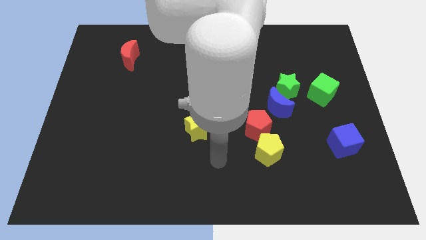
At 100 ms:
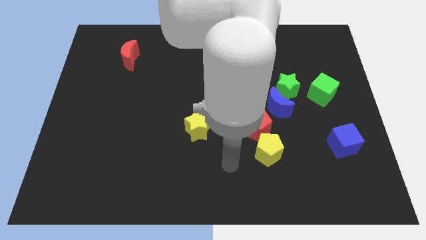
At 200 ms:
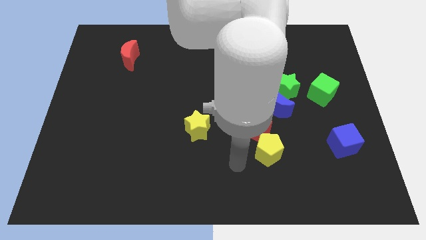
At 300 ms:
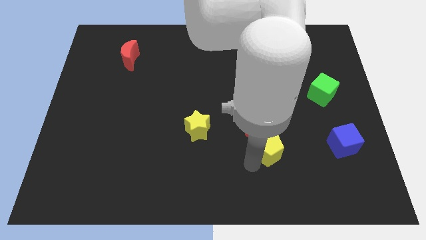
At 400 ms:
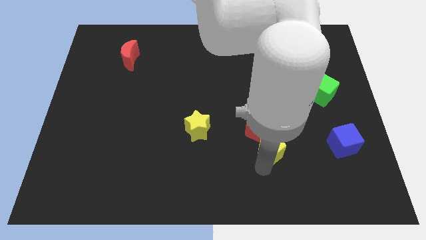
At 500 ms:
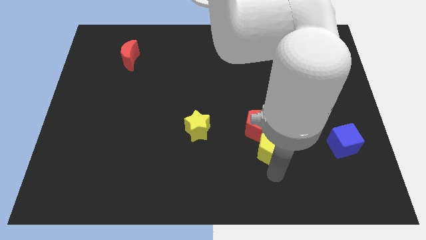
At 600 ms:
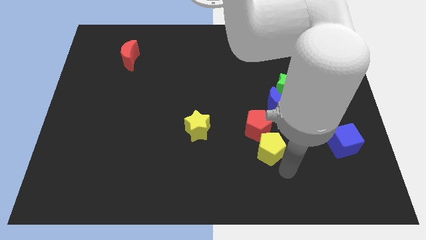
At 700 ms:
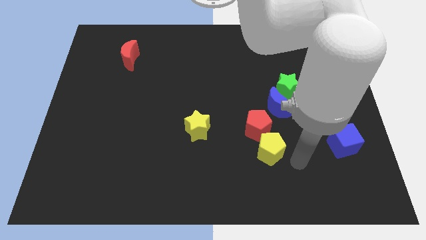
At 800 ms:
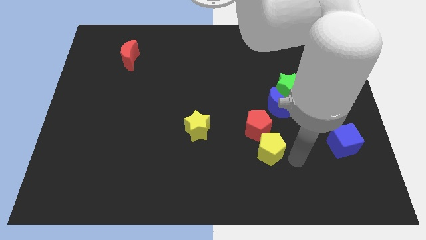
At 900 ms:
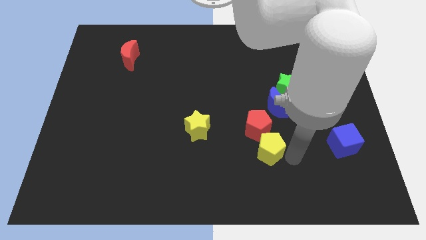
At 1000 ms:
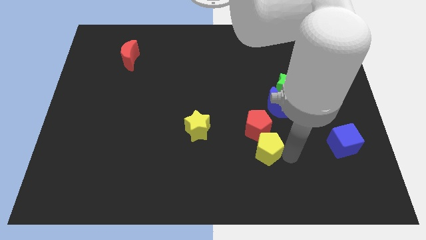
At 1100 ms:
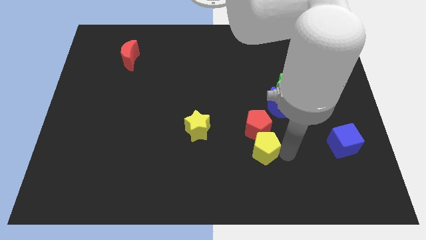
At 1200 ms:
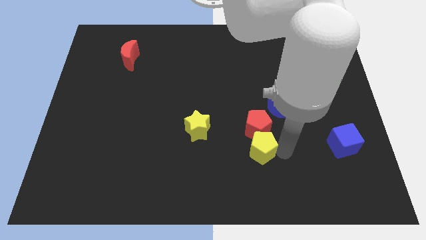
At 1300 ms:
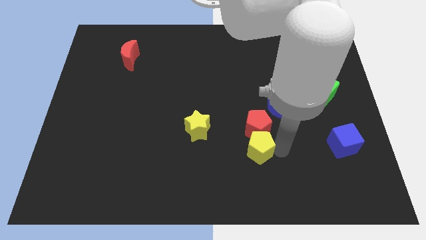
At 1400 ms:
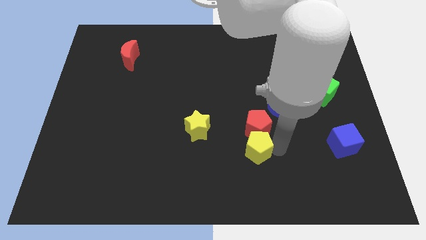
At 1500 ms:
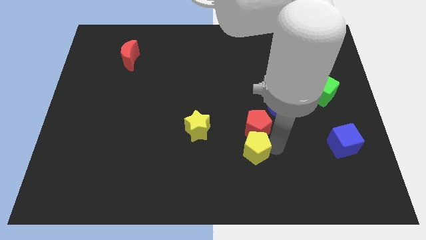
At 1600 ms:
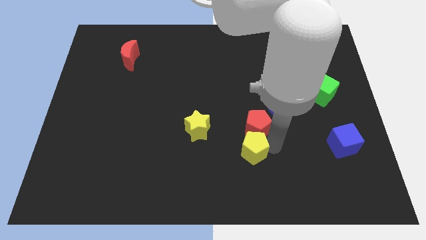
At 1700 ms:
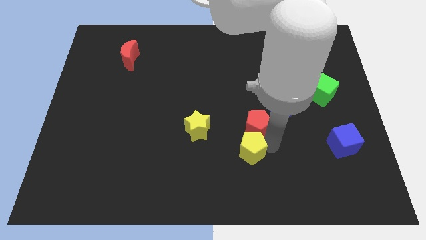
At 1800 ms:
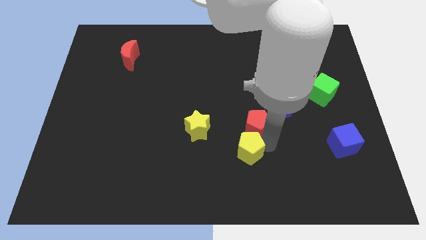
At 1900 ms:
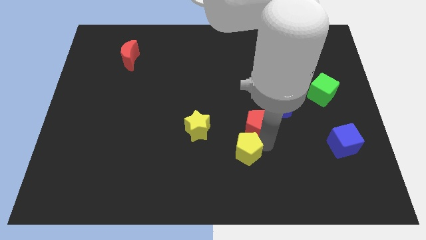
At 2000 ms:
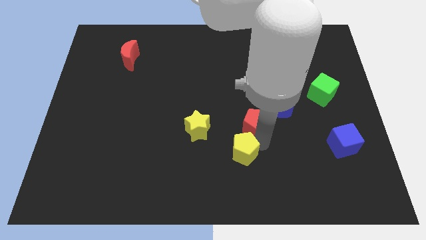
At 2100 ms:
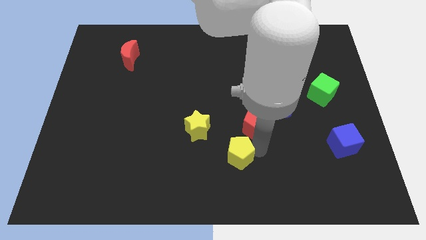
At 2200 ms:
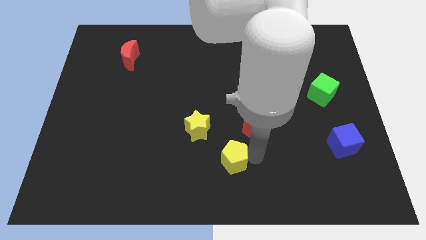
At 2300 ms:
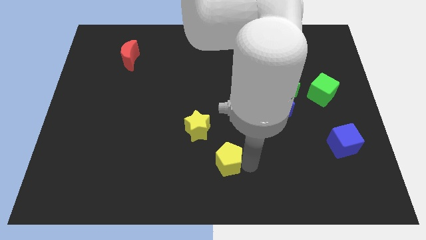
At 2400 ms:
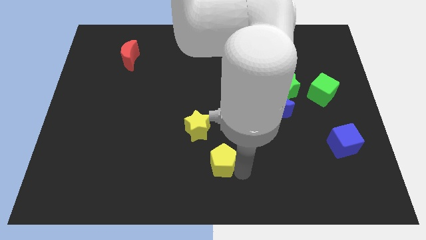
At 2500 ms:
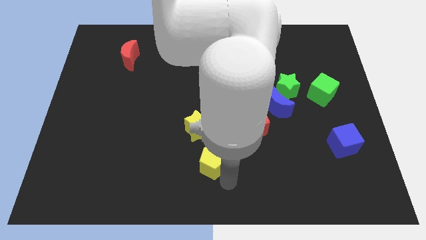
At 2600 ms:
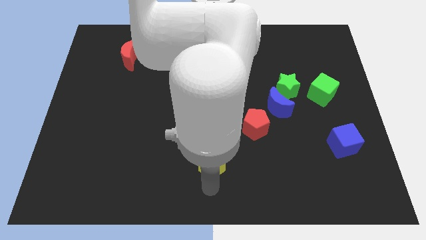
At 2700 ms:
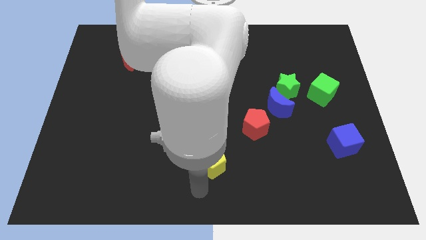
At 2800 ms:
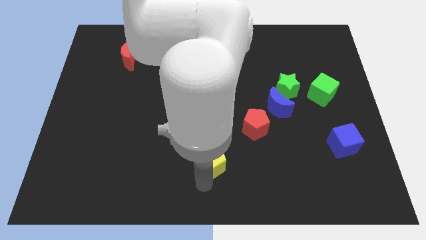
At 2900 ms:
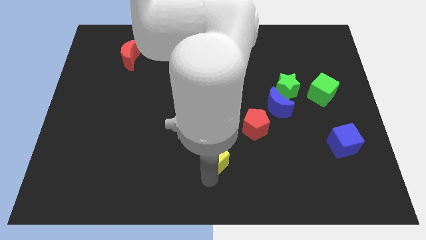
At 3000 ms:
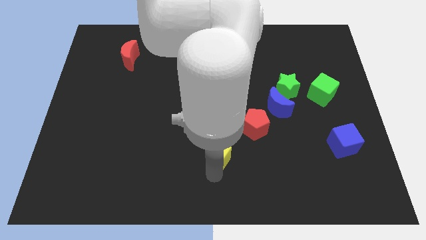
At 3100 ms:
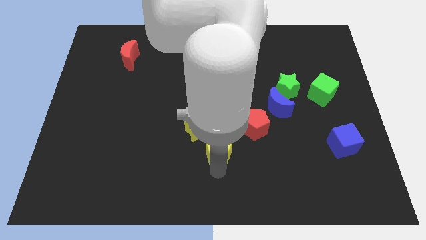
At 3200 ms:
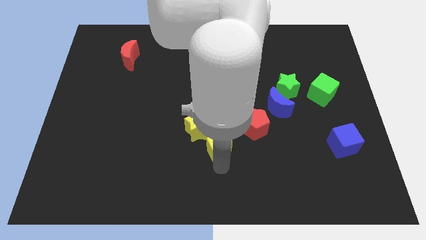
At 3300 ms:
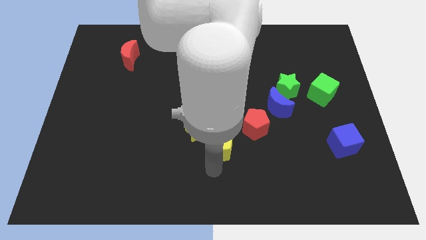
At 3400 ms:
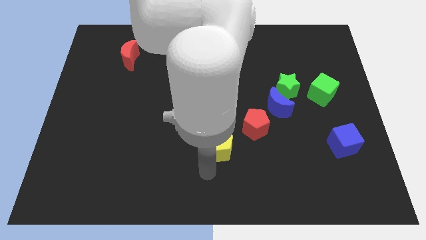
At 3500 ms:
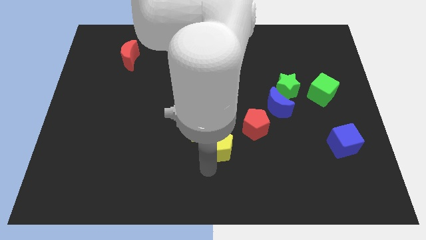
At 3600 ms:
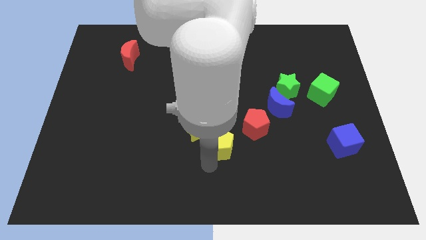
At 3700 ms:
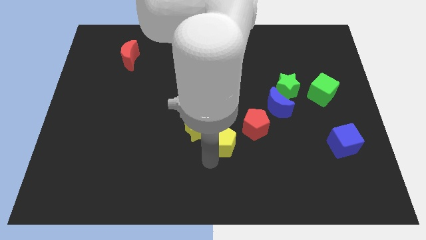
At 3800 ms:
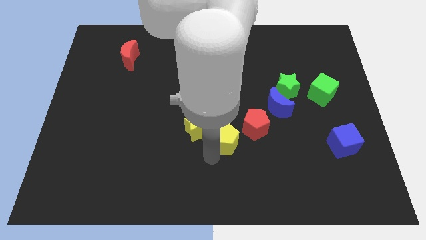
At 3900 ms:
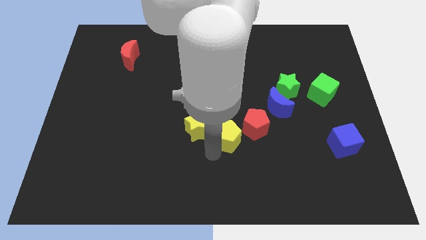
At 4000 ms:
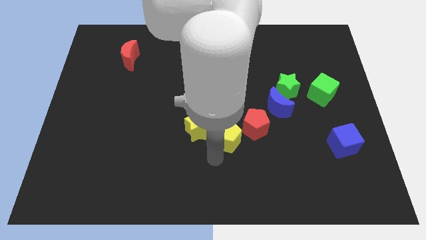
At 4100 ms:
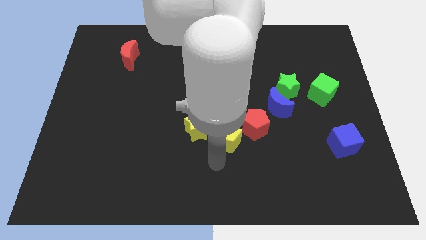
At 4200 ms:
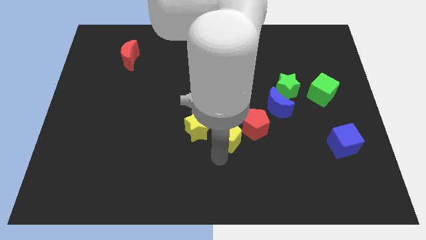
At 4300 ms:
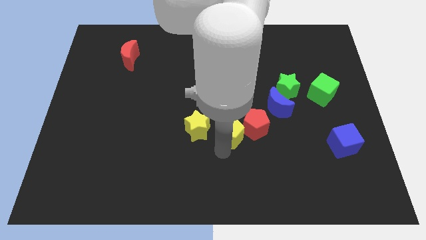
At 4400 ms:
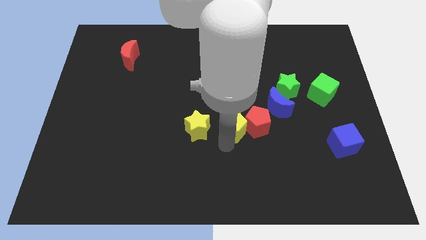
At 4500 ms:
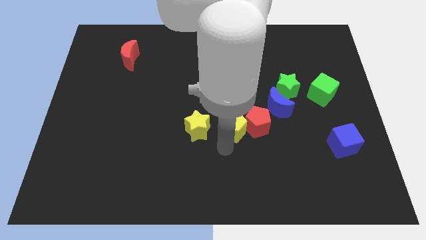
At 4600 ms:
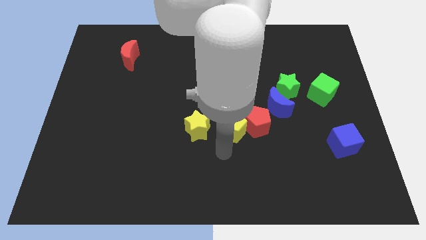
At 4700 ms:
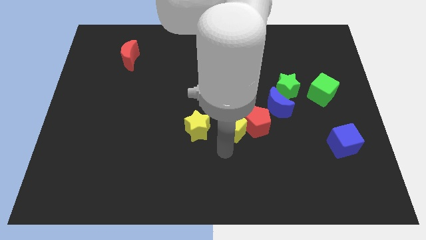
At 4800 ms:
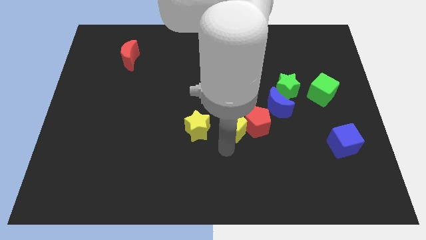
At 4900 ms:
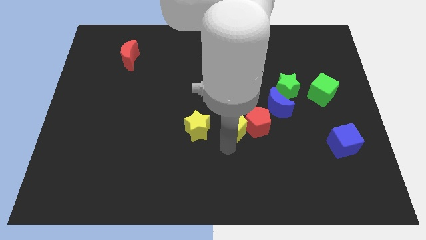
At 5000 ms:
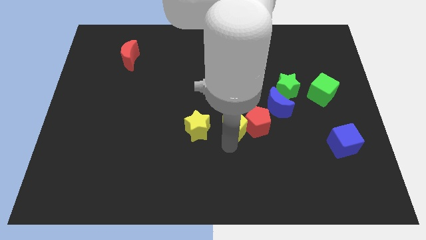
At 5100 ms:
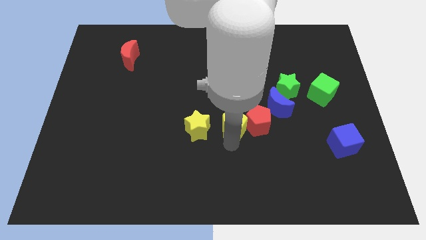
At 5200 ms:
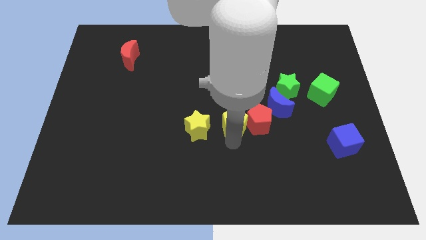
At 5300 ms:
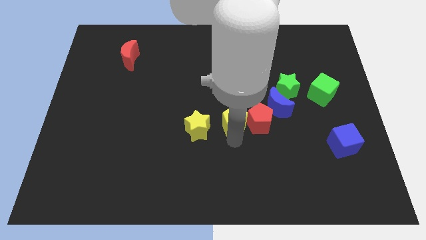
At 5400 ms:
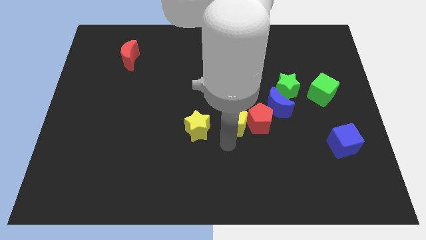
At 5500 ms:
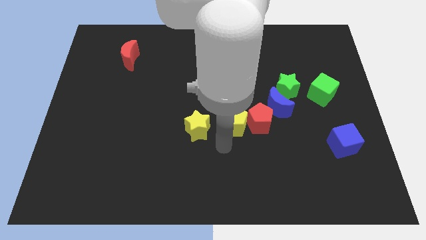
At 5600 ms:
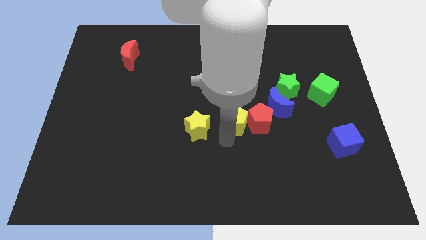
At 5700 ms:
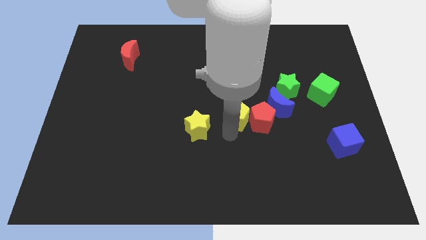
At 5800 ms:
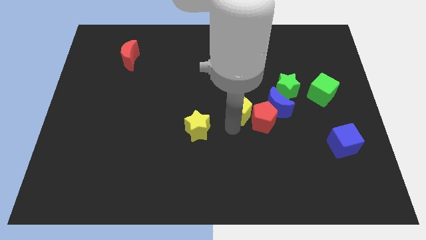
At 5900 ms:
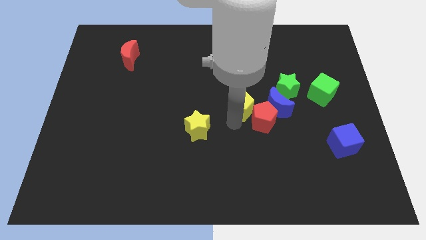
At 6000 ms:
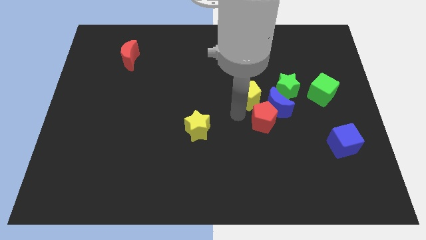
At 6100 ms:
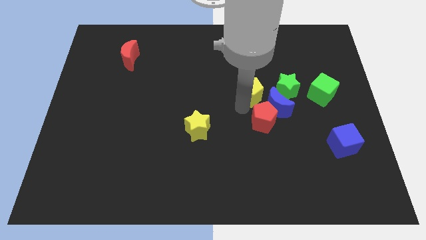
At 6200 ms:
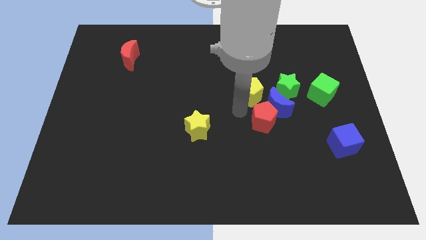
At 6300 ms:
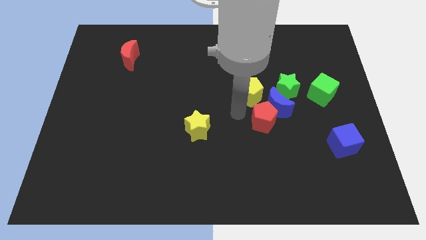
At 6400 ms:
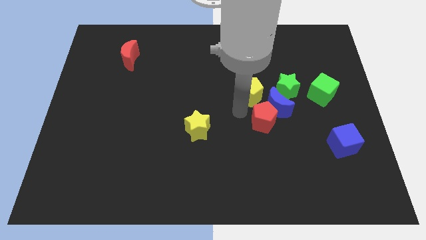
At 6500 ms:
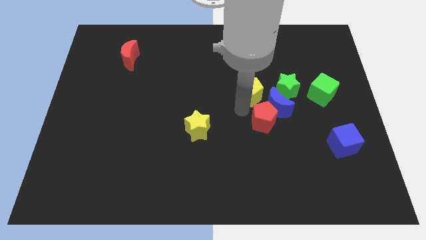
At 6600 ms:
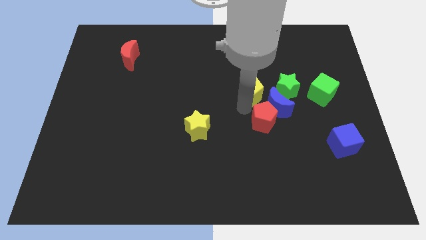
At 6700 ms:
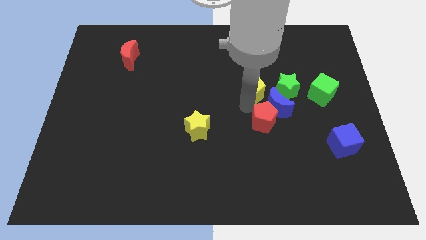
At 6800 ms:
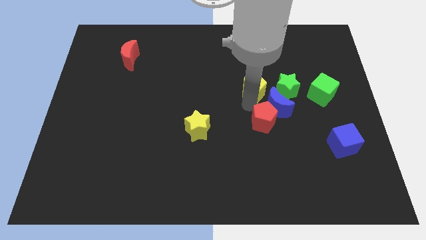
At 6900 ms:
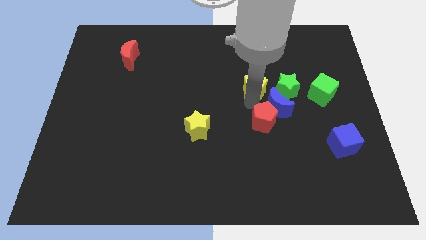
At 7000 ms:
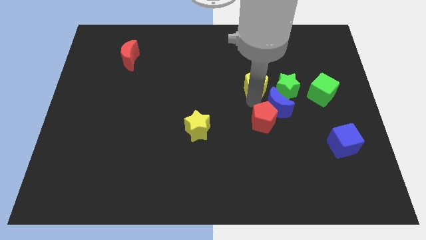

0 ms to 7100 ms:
push the yellow pentagon diagonally up and to the left of the green star
